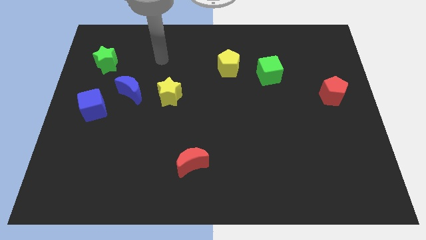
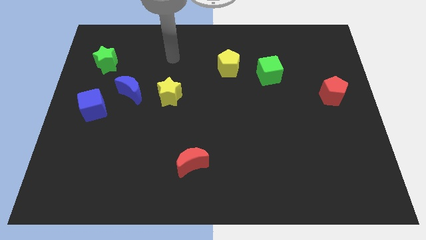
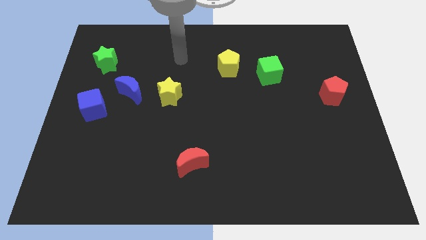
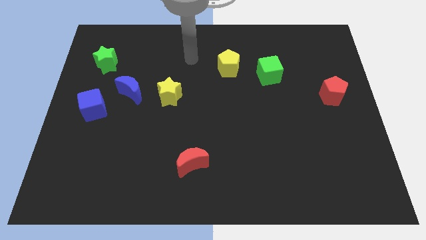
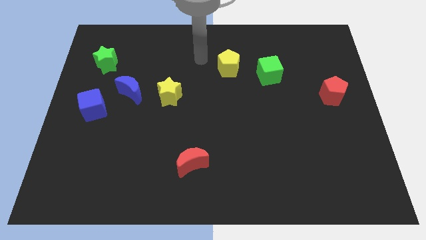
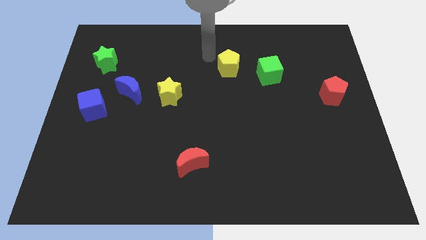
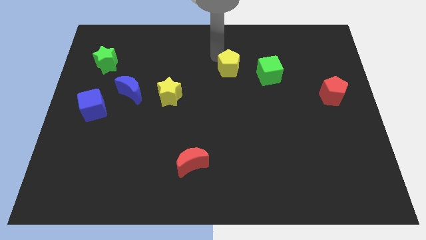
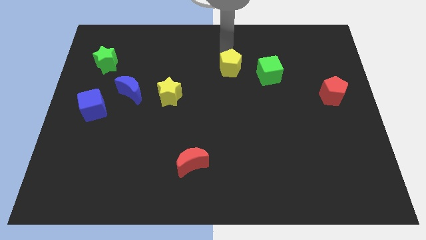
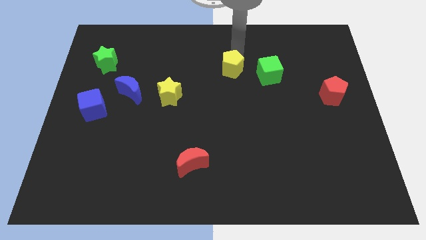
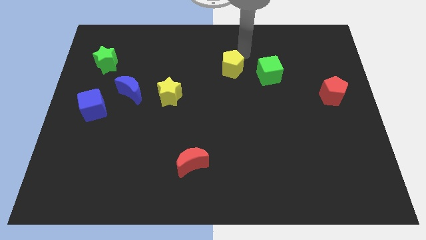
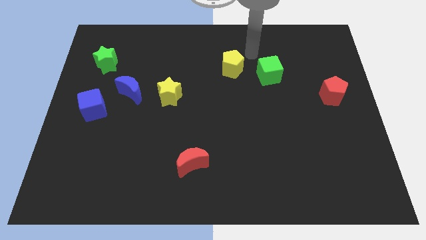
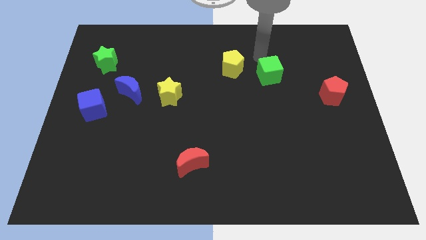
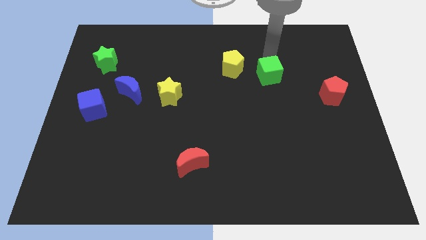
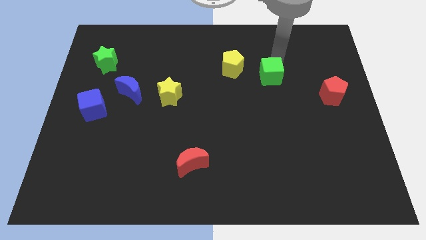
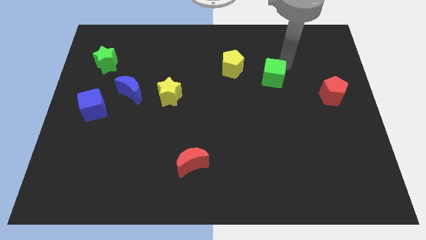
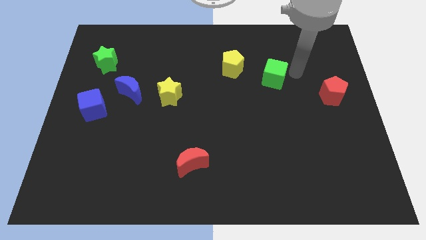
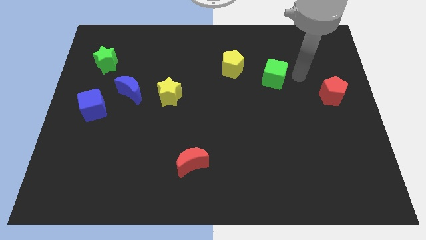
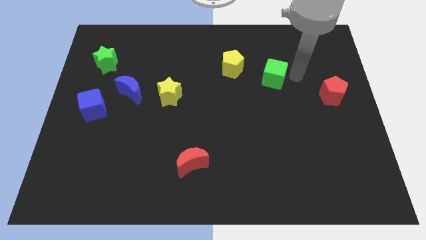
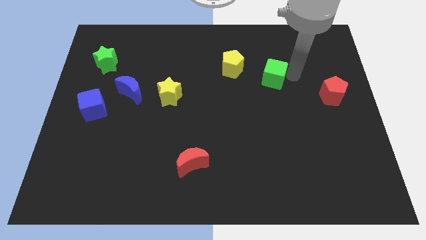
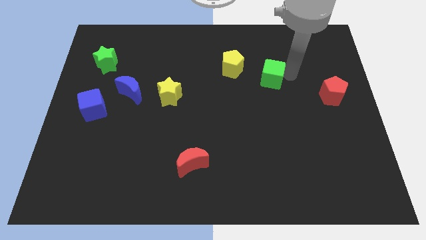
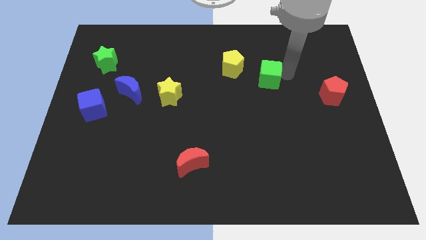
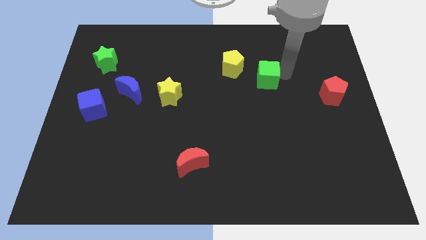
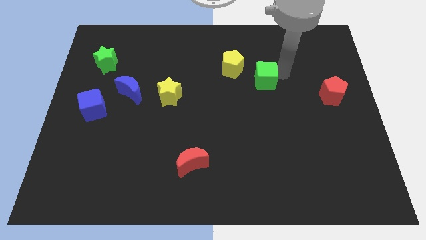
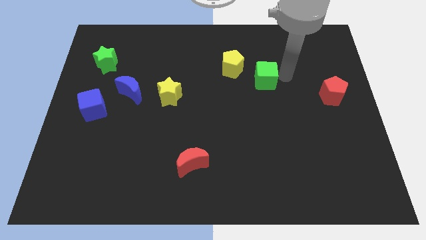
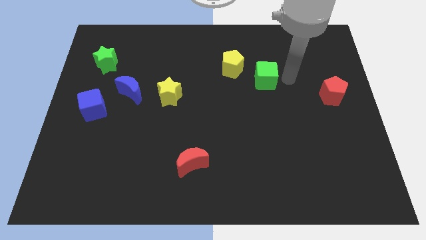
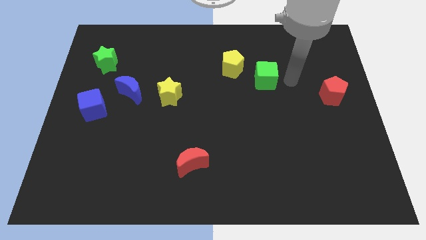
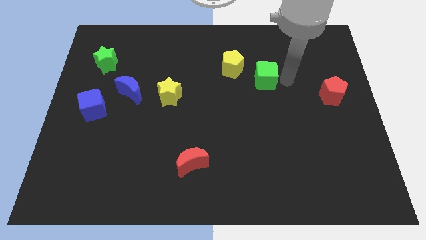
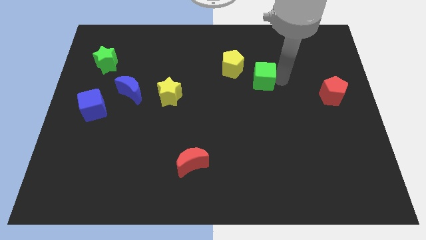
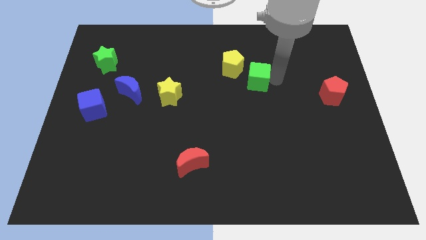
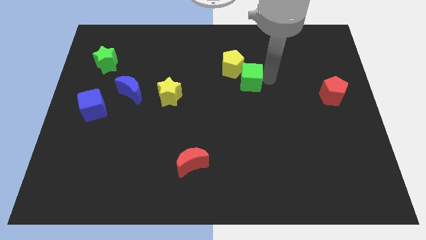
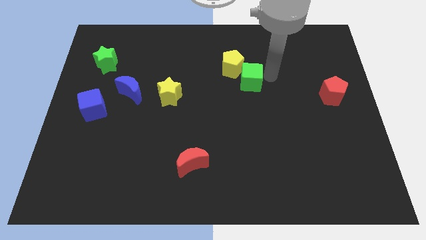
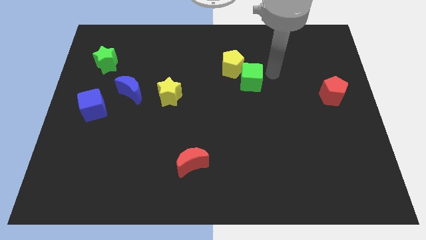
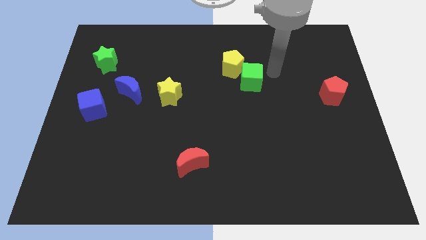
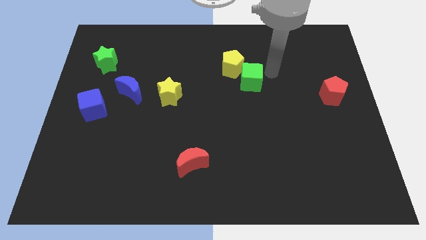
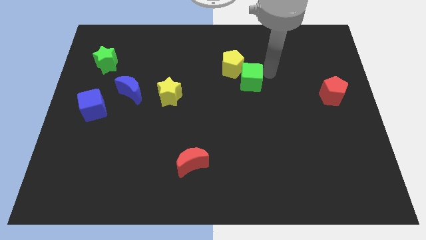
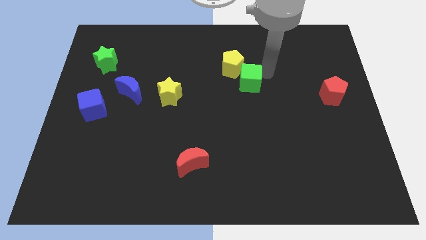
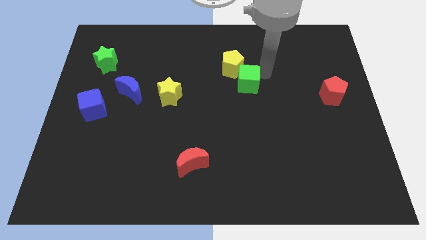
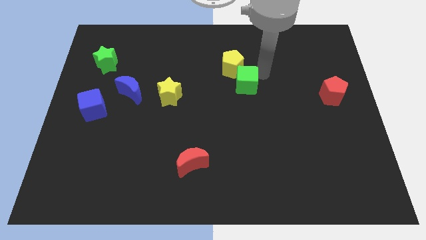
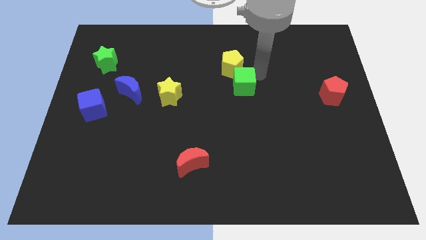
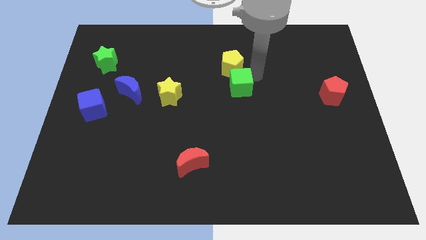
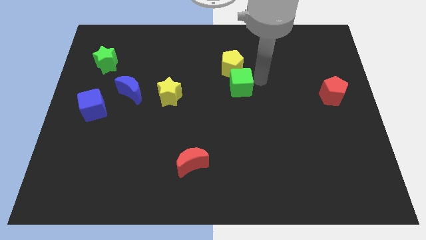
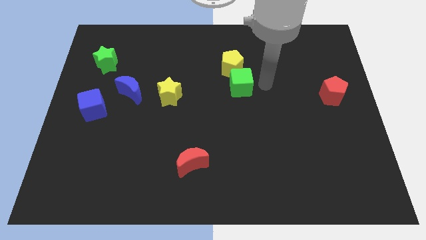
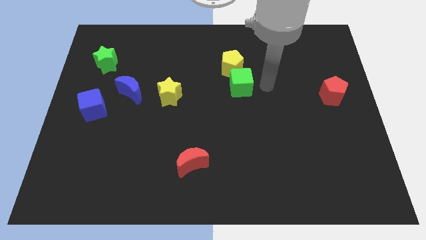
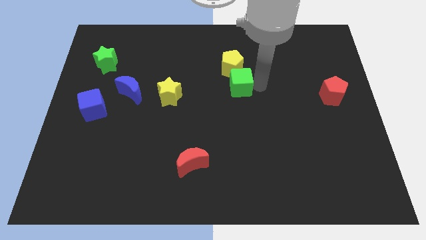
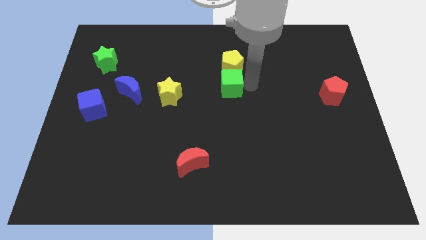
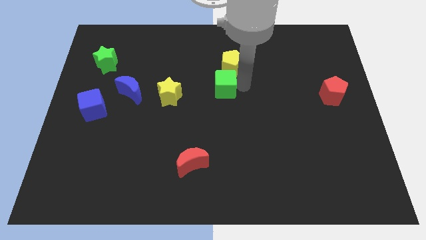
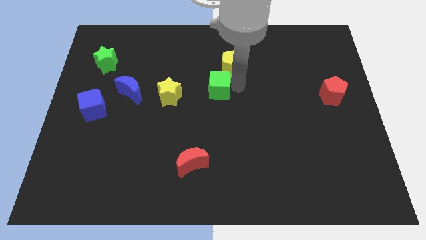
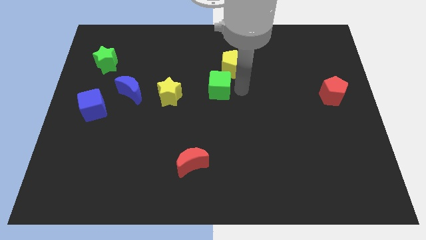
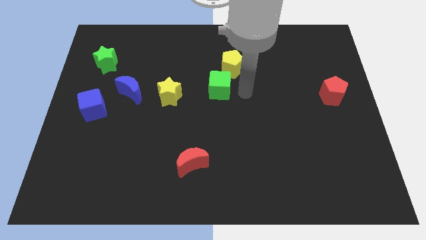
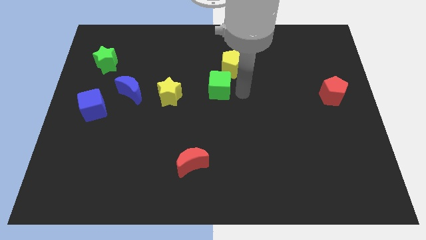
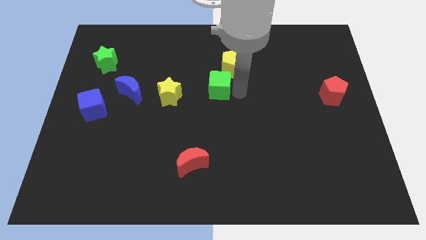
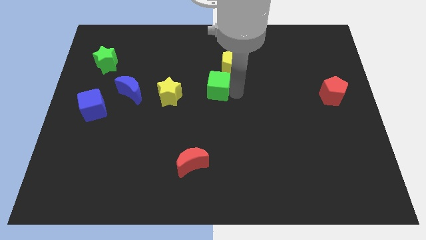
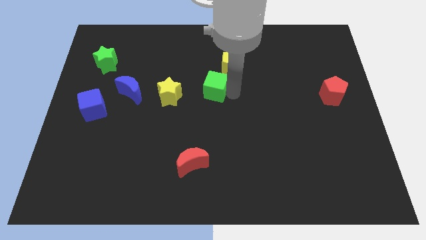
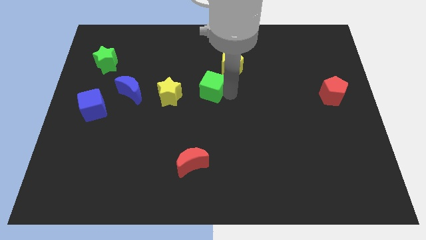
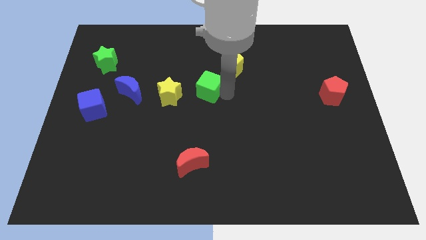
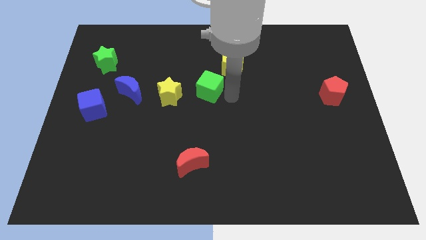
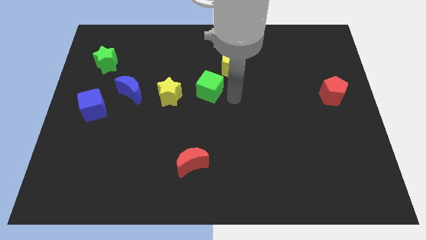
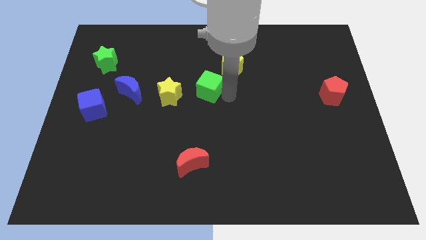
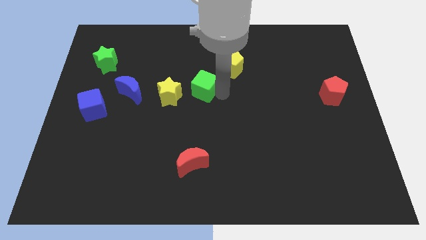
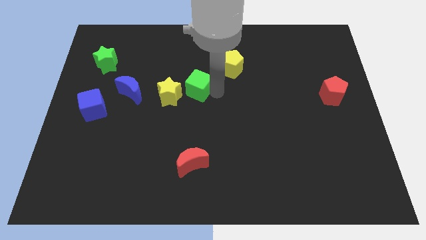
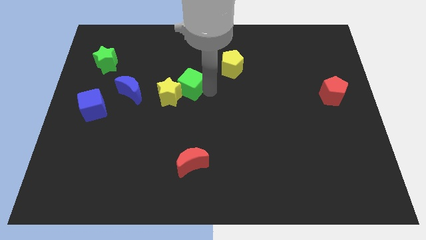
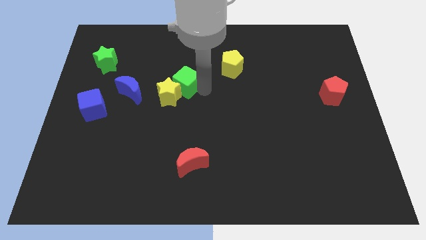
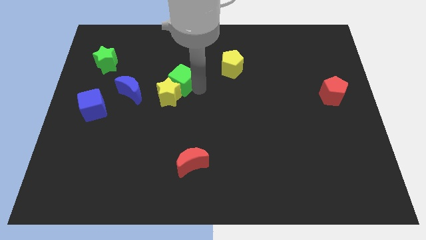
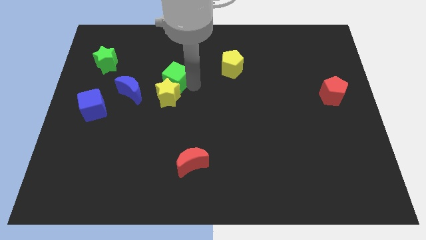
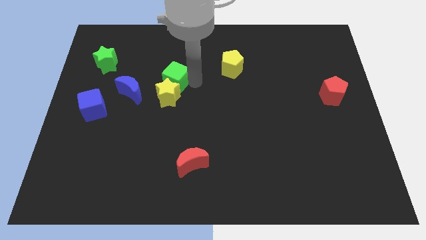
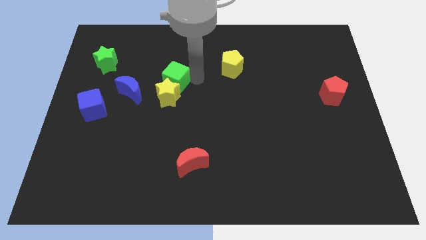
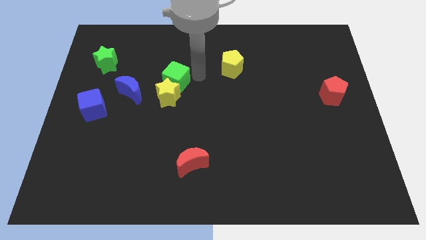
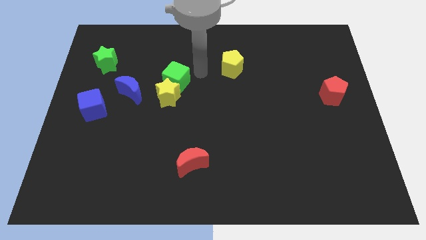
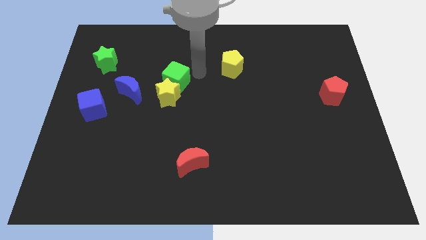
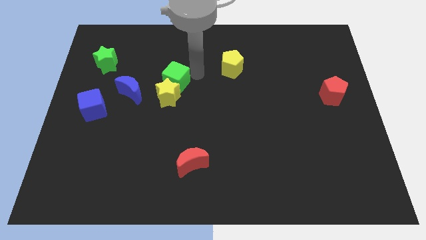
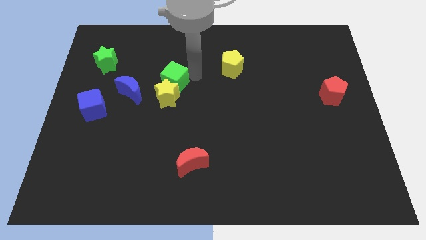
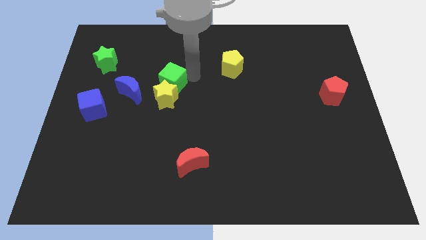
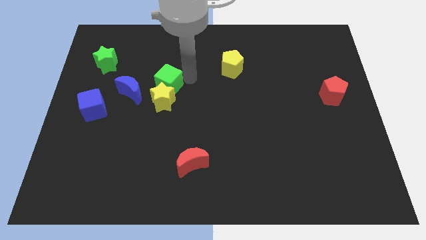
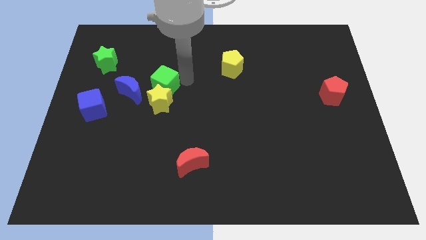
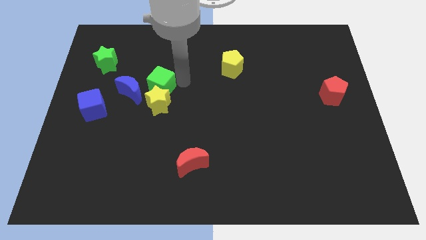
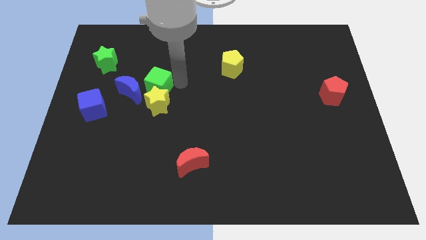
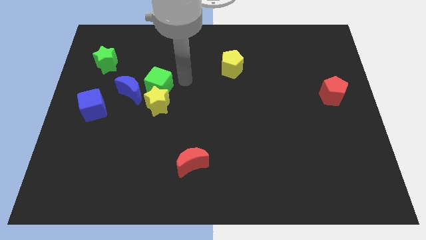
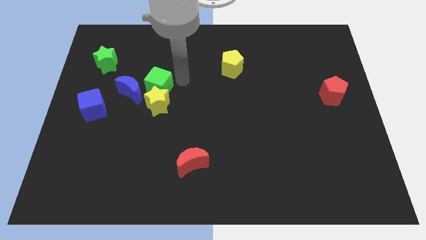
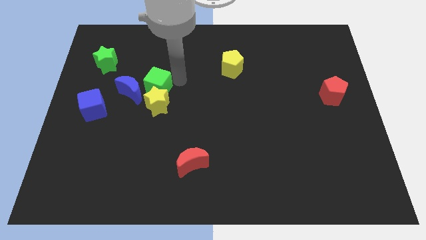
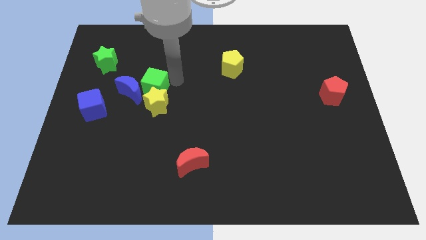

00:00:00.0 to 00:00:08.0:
put the green cube close to the blue moon
